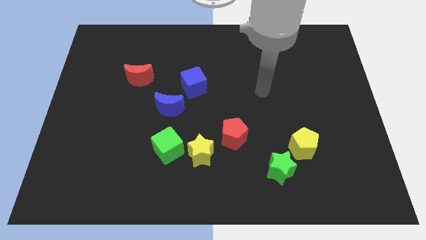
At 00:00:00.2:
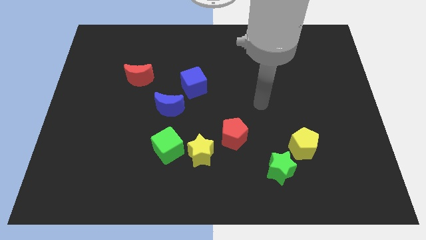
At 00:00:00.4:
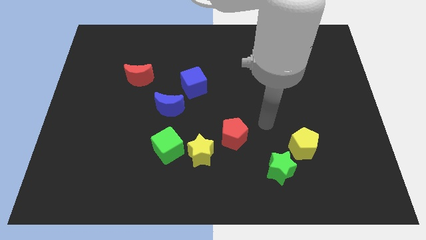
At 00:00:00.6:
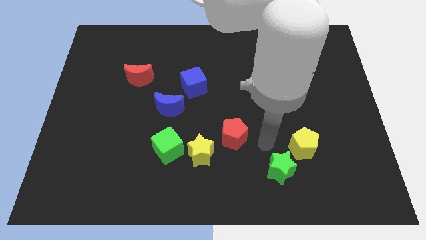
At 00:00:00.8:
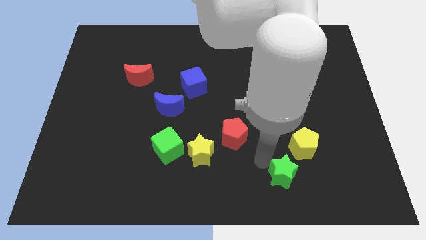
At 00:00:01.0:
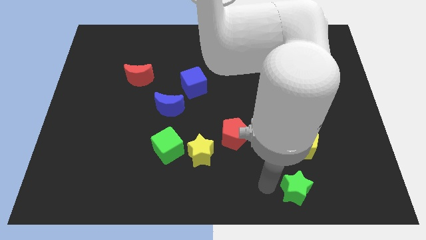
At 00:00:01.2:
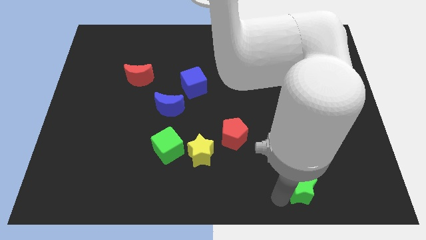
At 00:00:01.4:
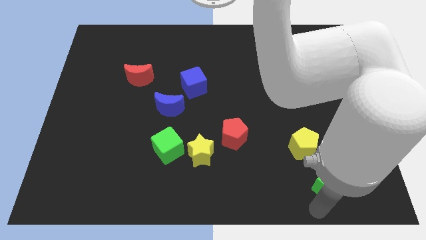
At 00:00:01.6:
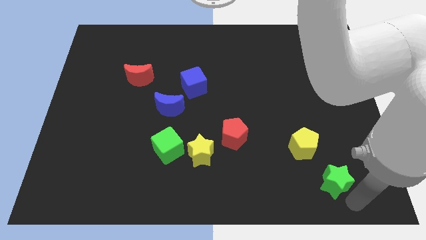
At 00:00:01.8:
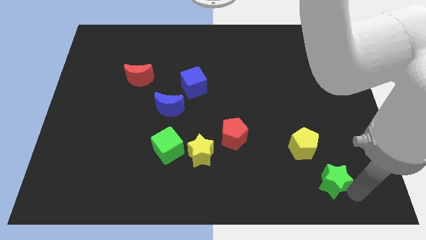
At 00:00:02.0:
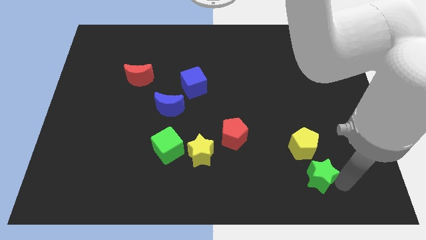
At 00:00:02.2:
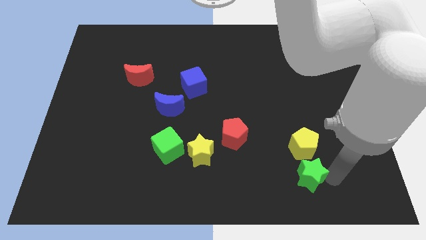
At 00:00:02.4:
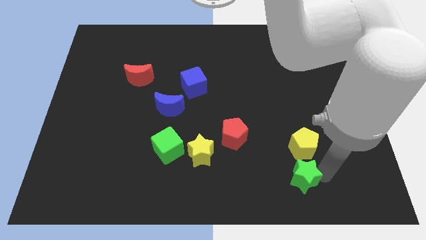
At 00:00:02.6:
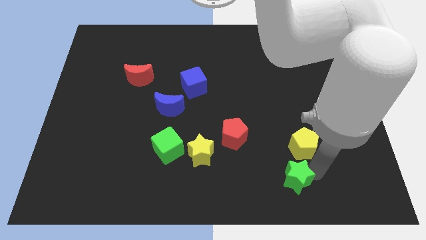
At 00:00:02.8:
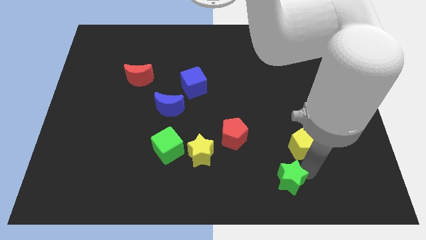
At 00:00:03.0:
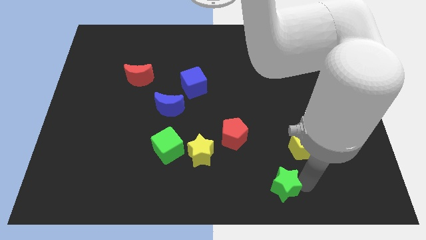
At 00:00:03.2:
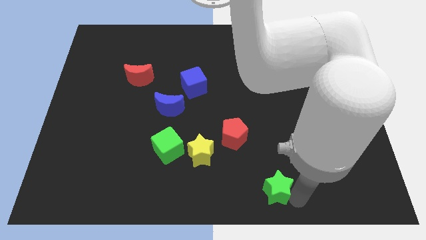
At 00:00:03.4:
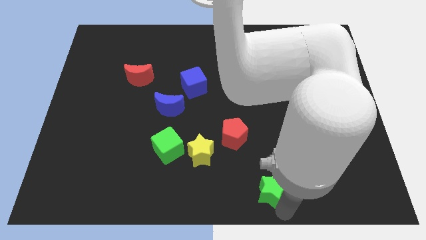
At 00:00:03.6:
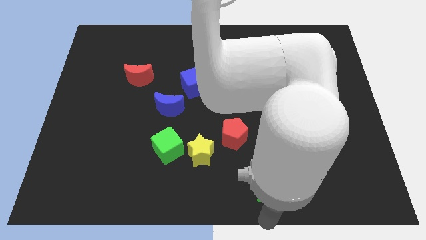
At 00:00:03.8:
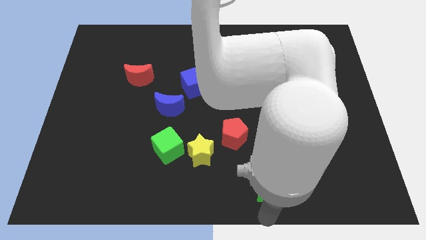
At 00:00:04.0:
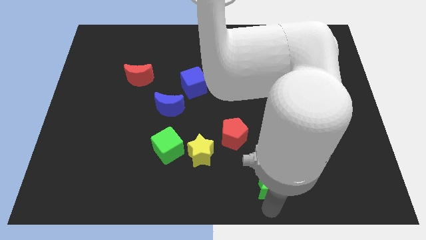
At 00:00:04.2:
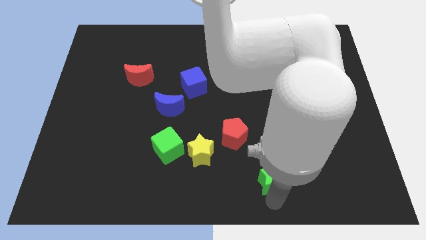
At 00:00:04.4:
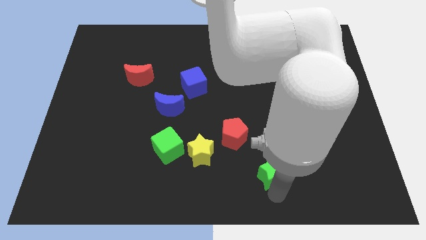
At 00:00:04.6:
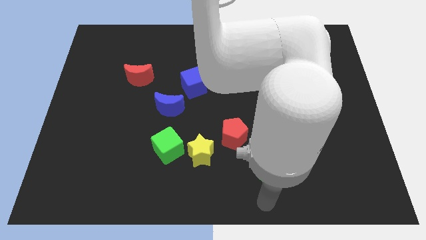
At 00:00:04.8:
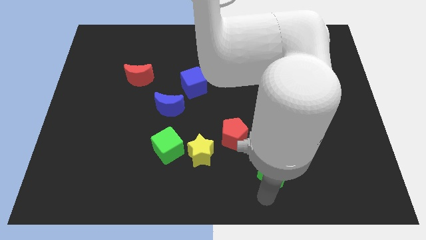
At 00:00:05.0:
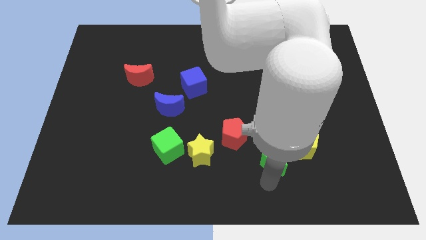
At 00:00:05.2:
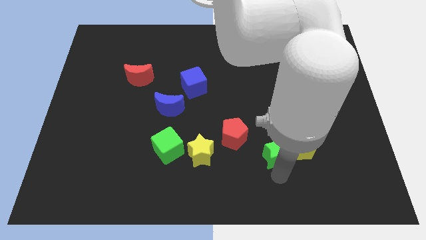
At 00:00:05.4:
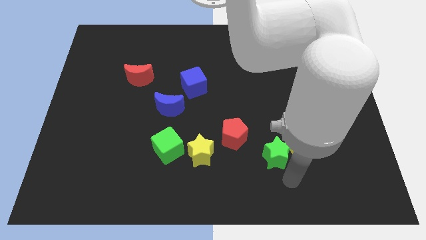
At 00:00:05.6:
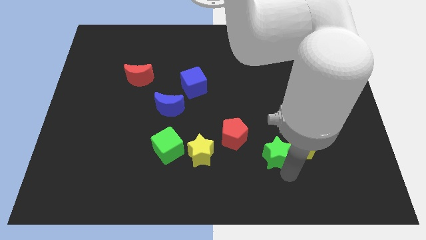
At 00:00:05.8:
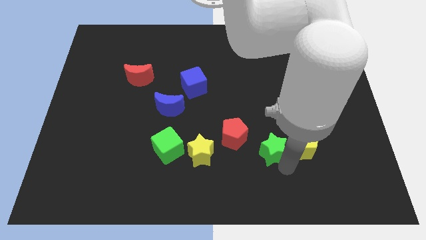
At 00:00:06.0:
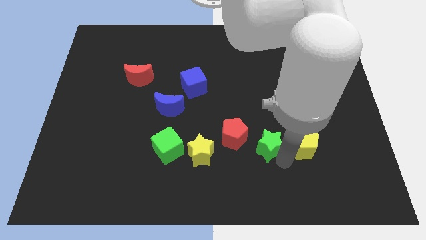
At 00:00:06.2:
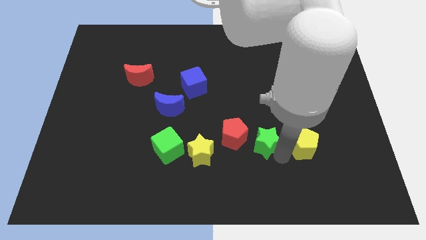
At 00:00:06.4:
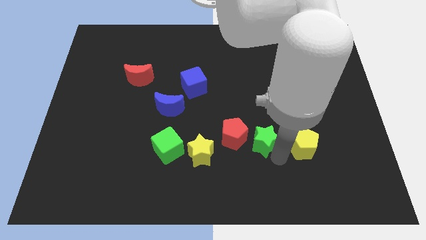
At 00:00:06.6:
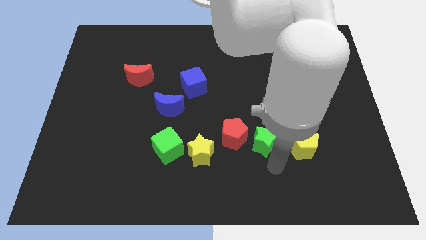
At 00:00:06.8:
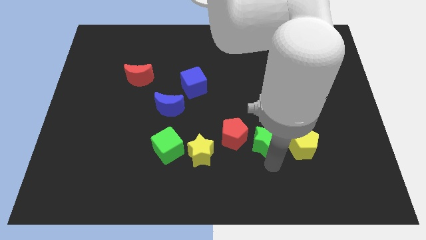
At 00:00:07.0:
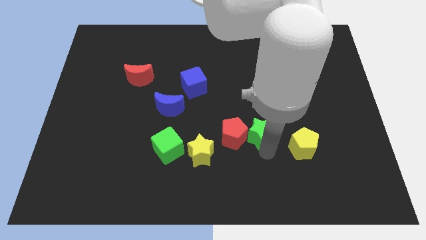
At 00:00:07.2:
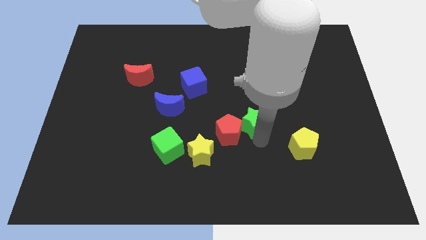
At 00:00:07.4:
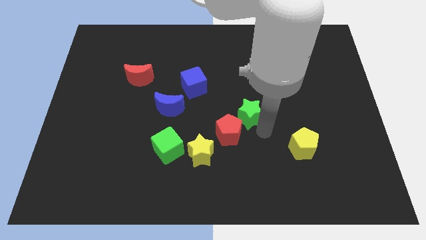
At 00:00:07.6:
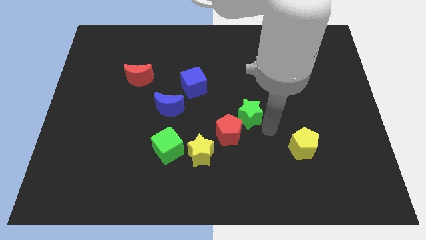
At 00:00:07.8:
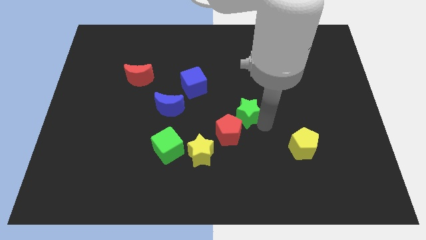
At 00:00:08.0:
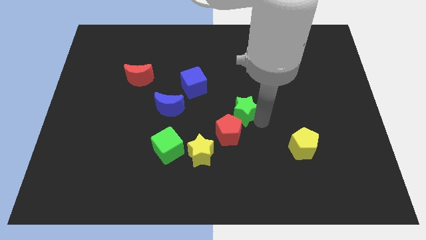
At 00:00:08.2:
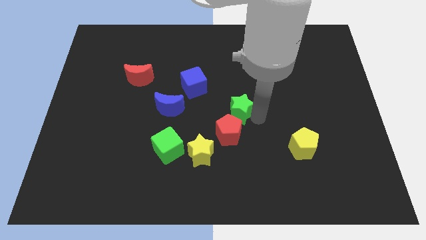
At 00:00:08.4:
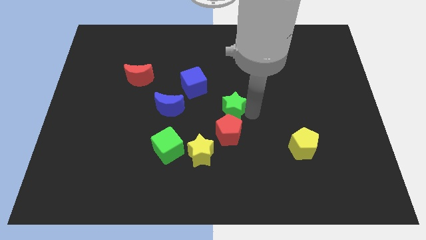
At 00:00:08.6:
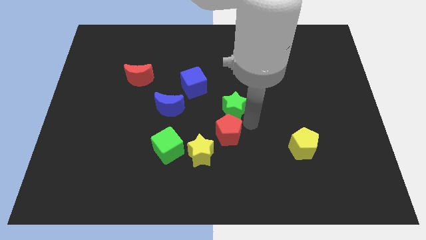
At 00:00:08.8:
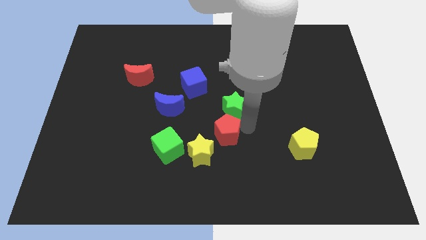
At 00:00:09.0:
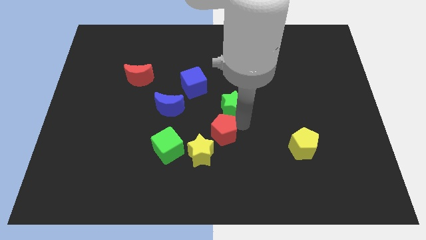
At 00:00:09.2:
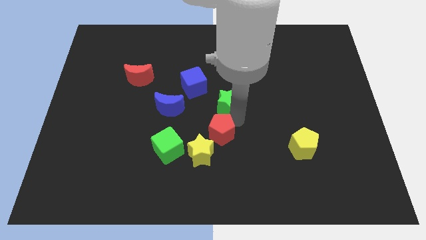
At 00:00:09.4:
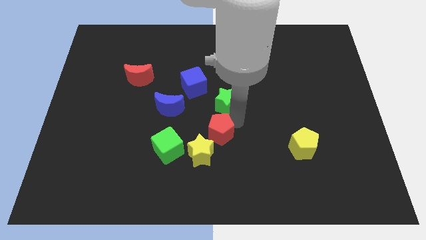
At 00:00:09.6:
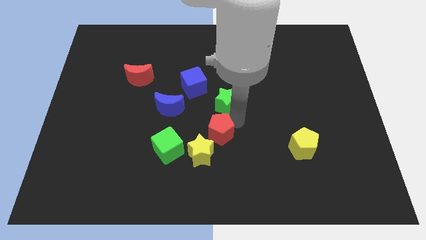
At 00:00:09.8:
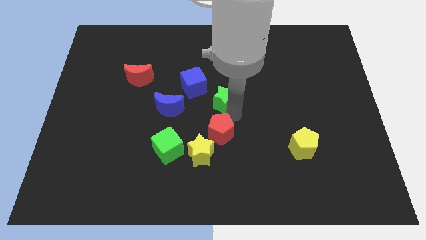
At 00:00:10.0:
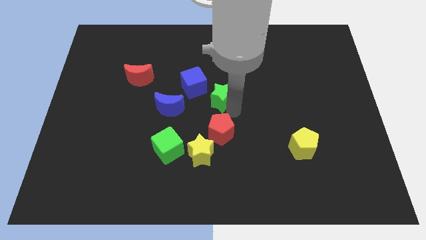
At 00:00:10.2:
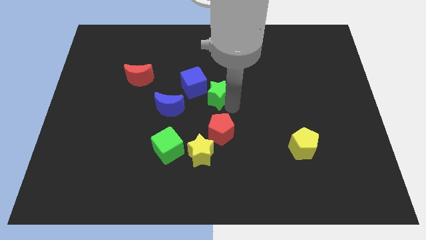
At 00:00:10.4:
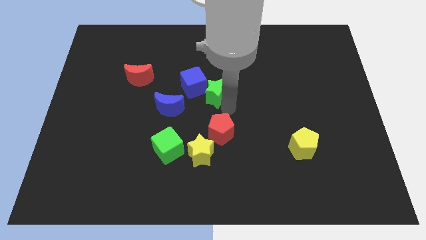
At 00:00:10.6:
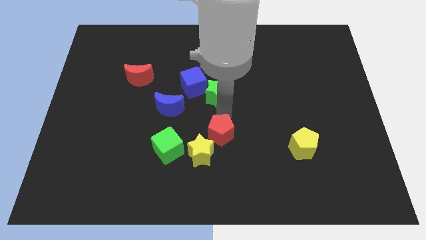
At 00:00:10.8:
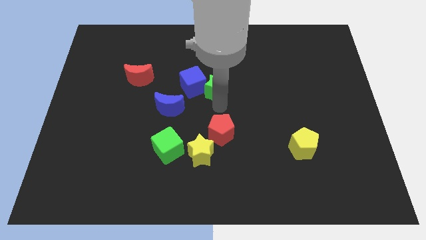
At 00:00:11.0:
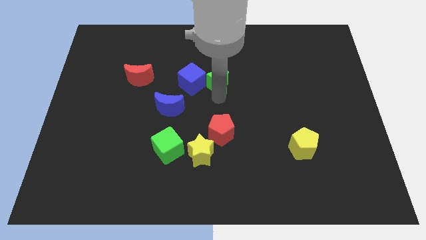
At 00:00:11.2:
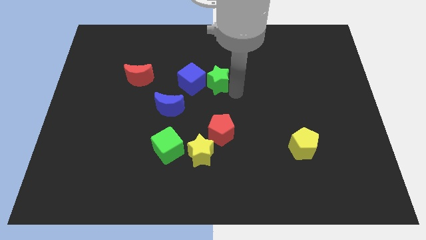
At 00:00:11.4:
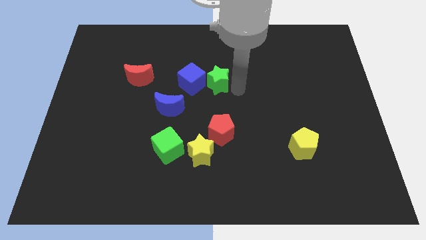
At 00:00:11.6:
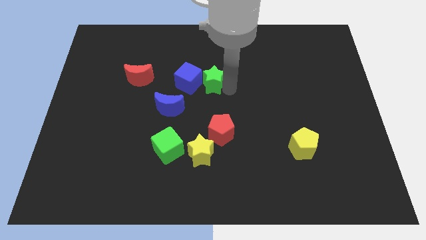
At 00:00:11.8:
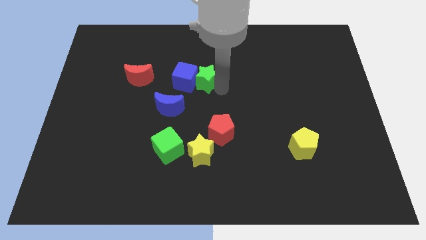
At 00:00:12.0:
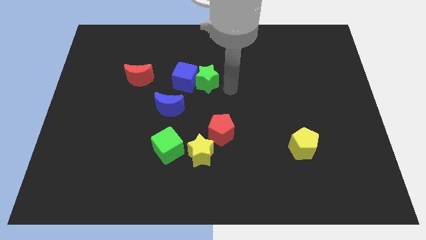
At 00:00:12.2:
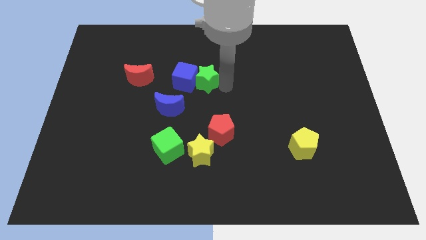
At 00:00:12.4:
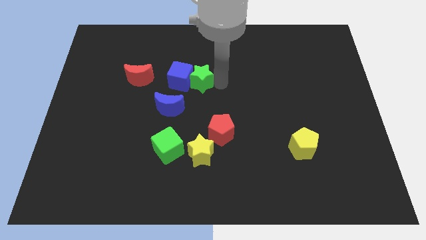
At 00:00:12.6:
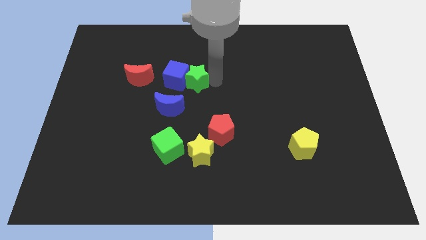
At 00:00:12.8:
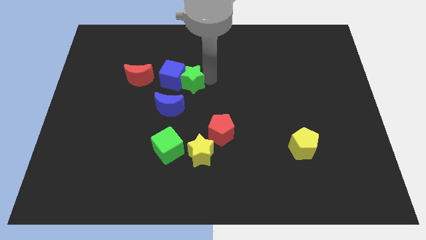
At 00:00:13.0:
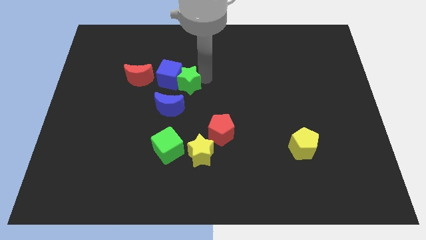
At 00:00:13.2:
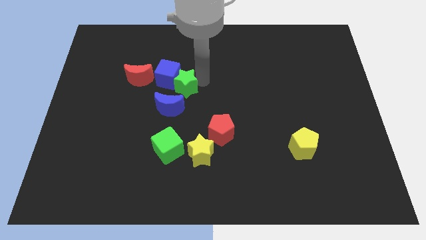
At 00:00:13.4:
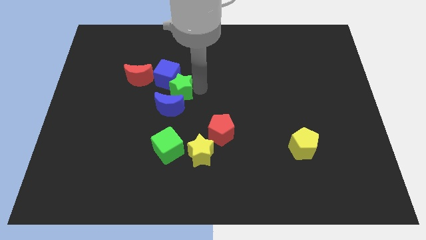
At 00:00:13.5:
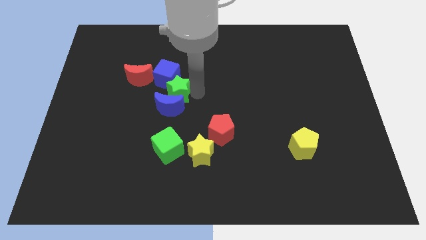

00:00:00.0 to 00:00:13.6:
put the green star above the green cube

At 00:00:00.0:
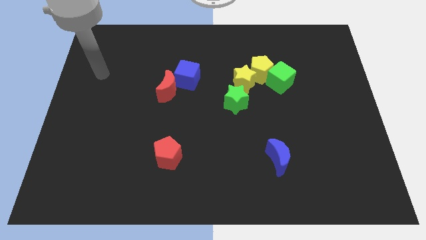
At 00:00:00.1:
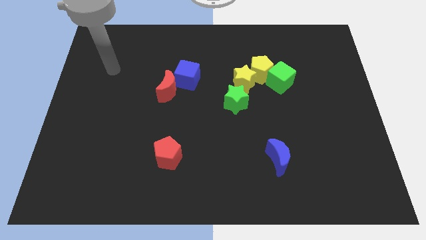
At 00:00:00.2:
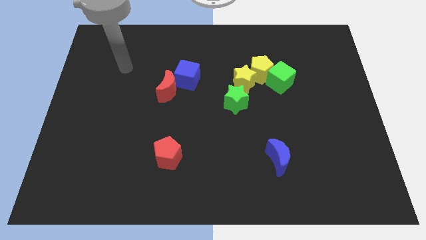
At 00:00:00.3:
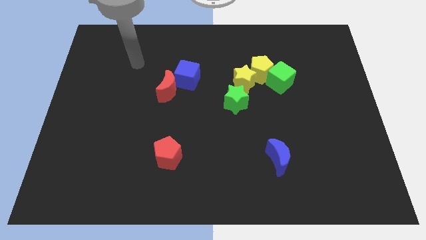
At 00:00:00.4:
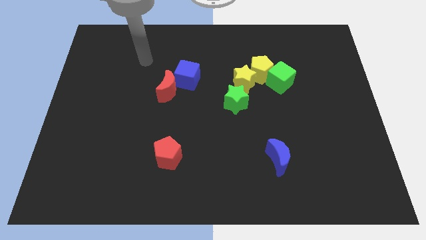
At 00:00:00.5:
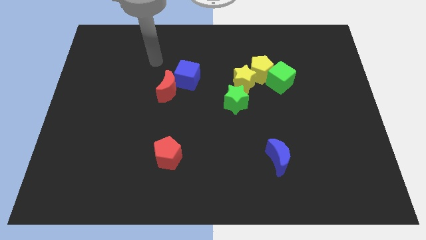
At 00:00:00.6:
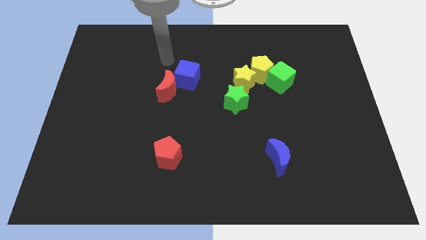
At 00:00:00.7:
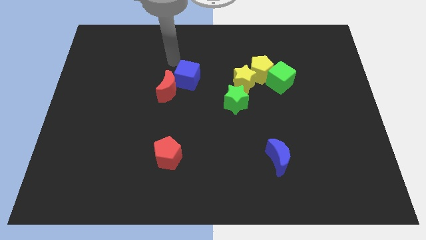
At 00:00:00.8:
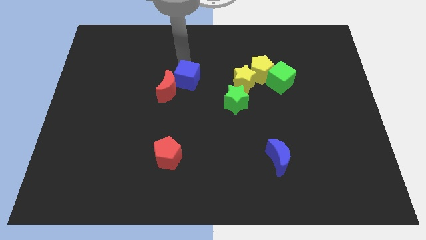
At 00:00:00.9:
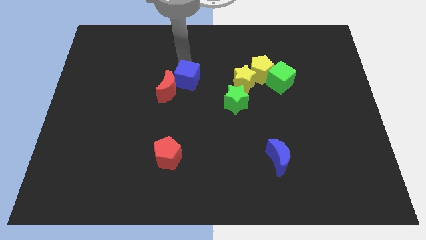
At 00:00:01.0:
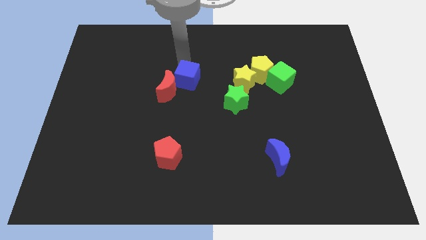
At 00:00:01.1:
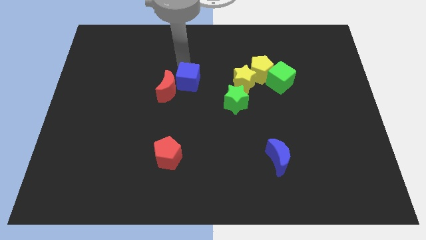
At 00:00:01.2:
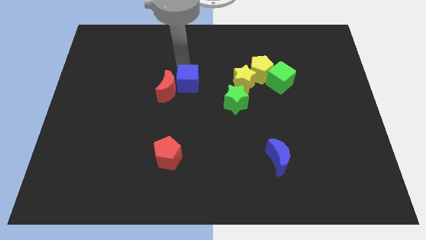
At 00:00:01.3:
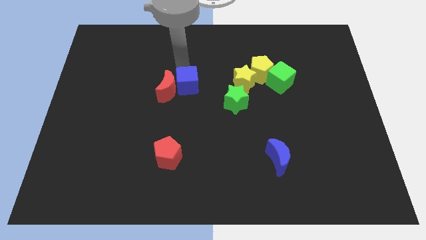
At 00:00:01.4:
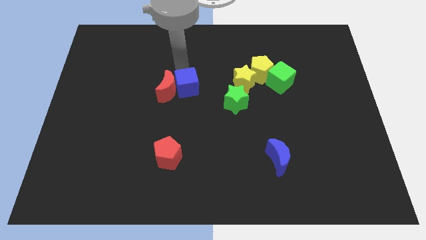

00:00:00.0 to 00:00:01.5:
move the blue cube to the left of the green star
